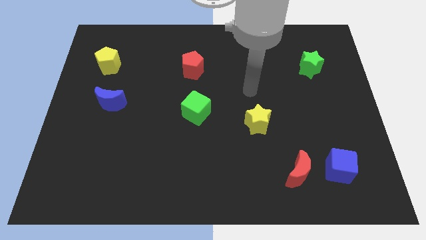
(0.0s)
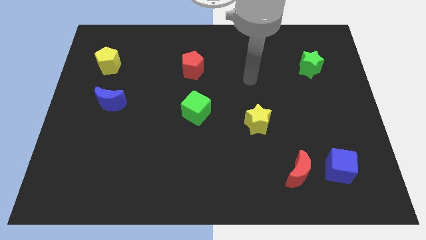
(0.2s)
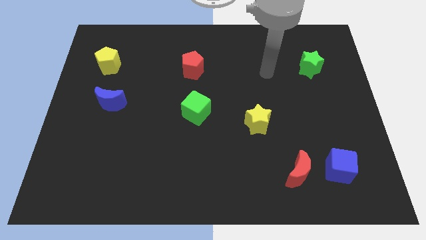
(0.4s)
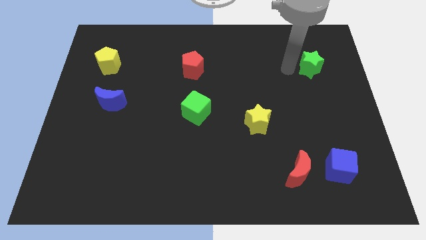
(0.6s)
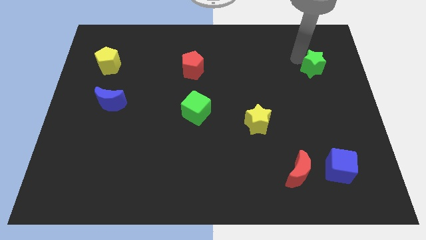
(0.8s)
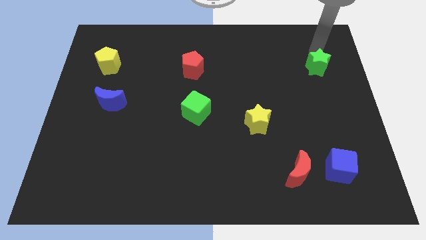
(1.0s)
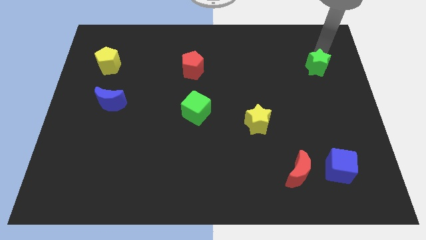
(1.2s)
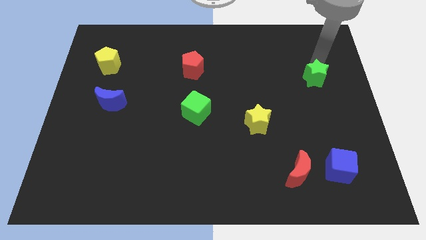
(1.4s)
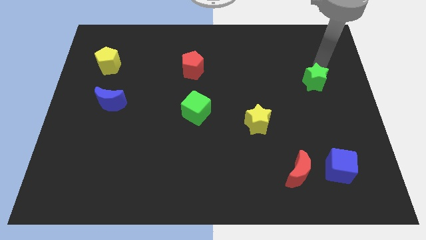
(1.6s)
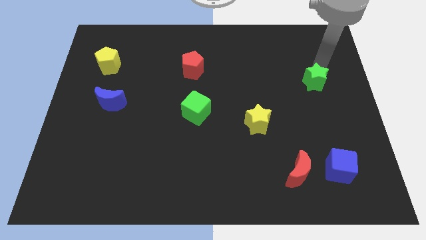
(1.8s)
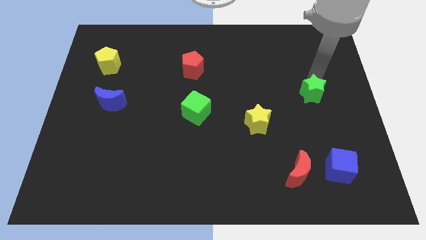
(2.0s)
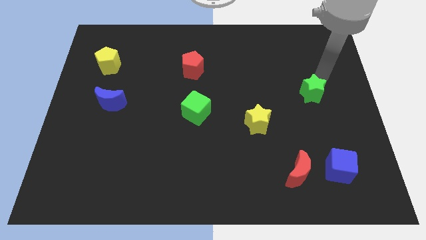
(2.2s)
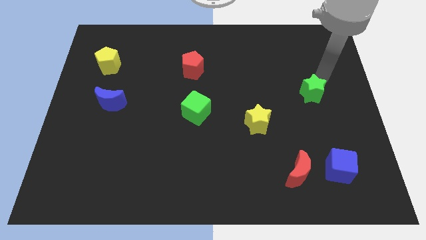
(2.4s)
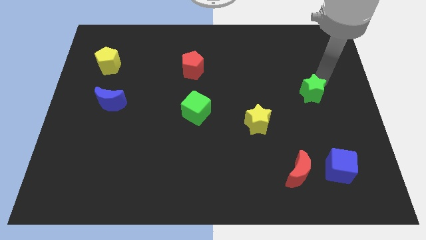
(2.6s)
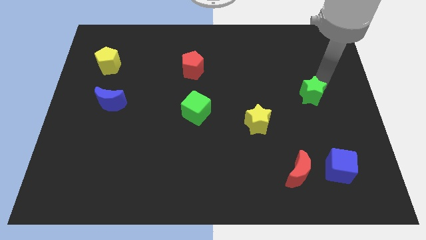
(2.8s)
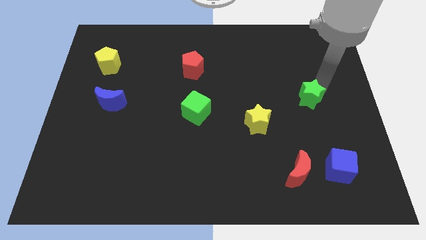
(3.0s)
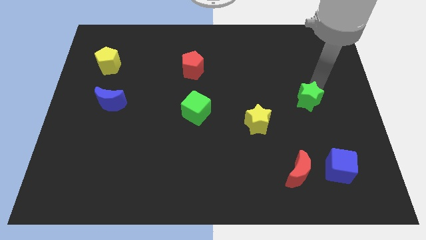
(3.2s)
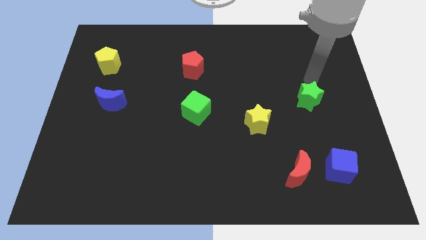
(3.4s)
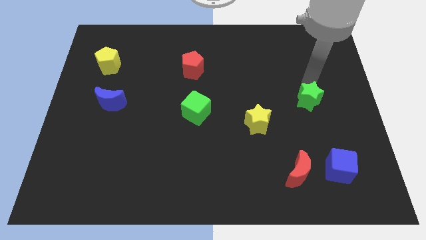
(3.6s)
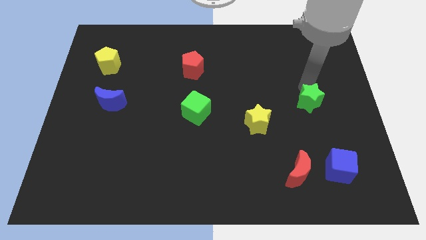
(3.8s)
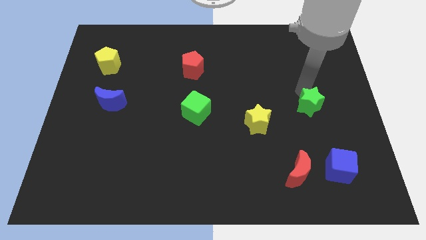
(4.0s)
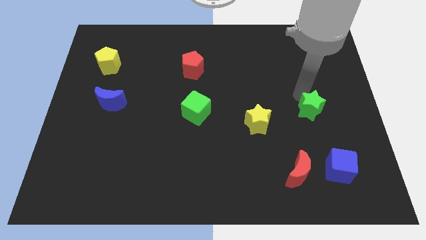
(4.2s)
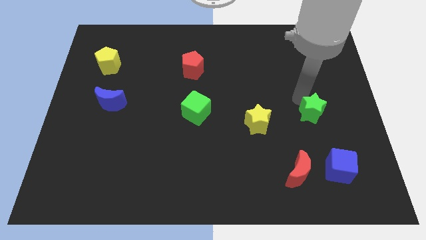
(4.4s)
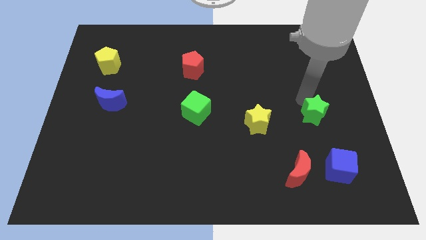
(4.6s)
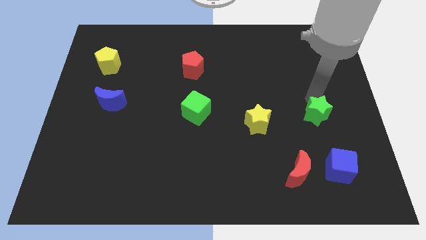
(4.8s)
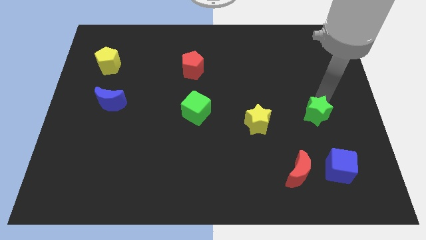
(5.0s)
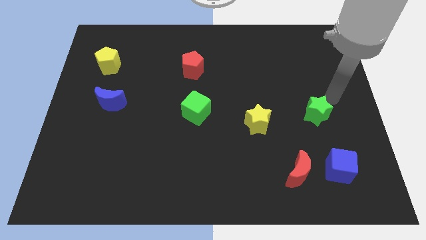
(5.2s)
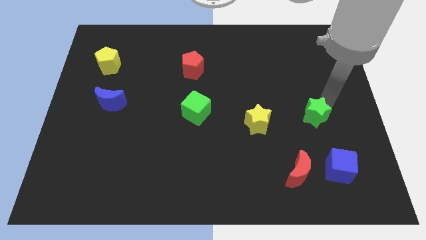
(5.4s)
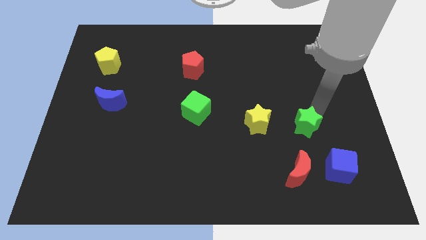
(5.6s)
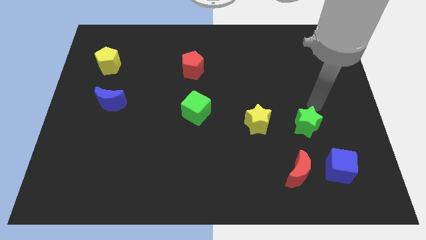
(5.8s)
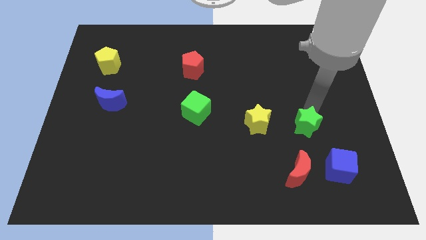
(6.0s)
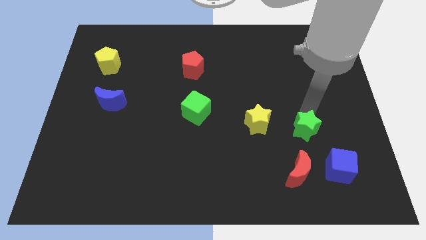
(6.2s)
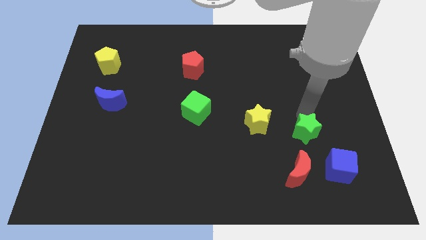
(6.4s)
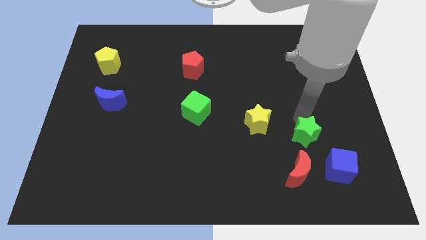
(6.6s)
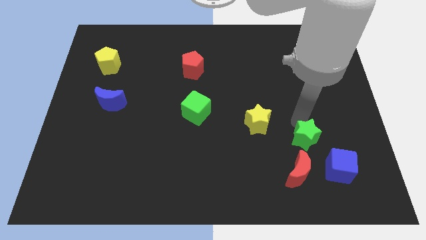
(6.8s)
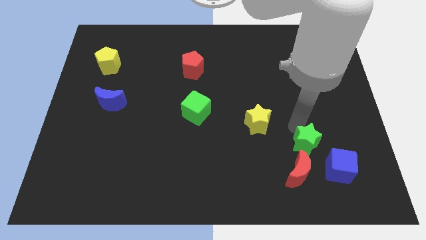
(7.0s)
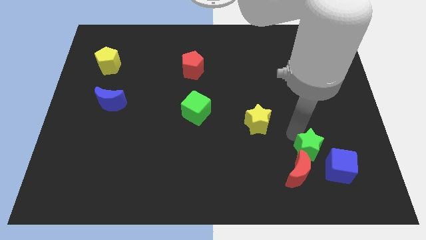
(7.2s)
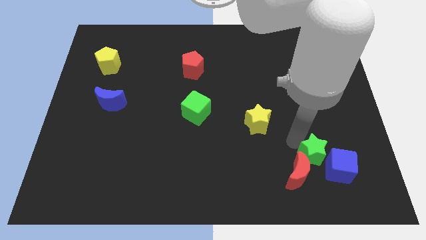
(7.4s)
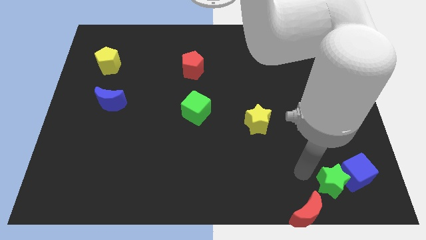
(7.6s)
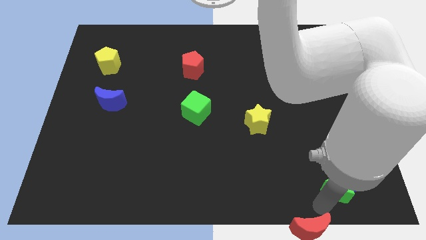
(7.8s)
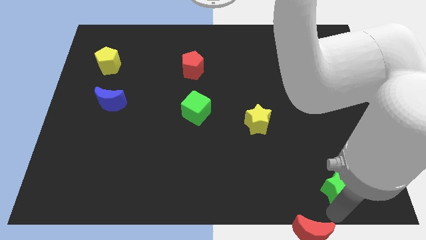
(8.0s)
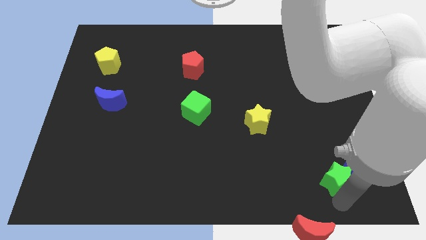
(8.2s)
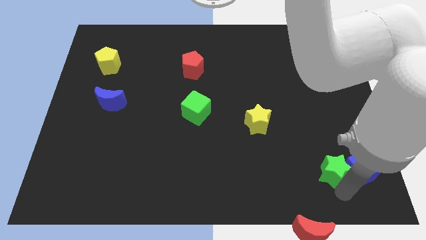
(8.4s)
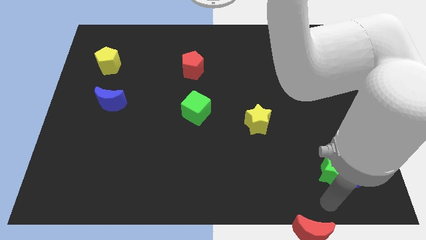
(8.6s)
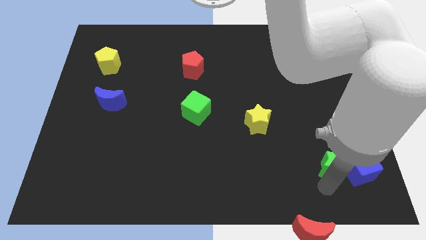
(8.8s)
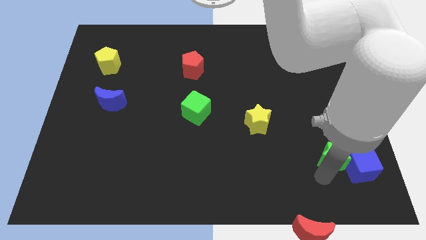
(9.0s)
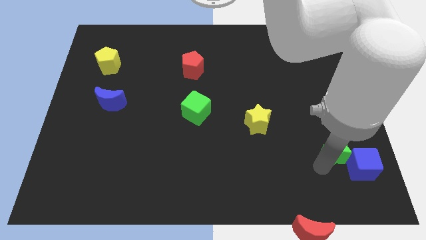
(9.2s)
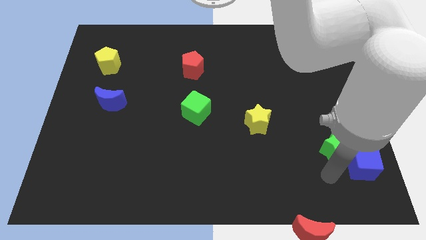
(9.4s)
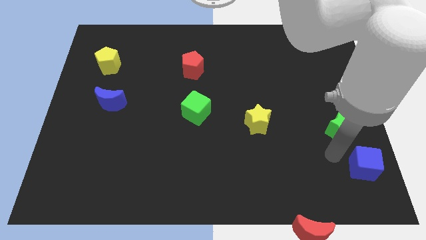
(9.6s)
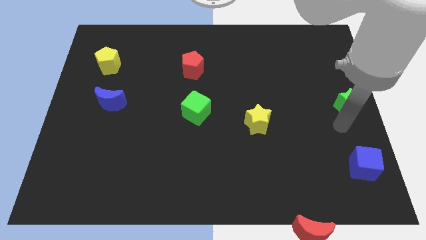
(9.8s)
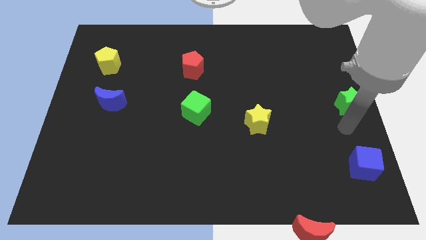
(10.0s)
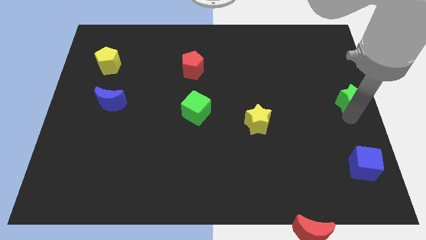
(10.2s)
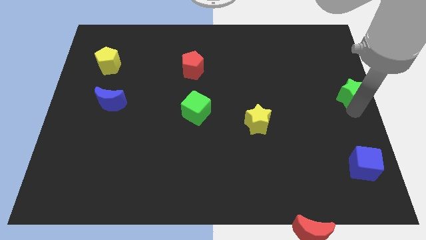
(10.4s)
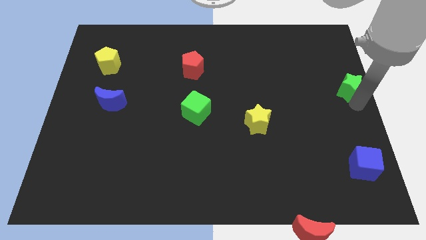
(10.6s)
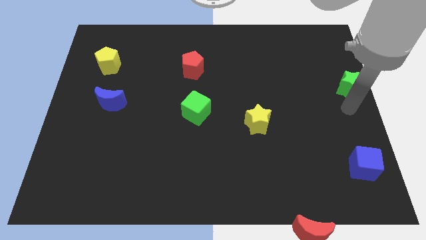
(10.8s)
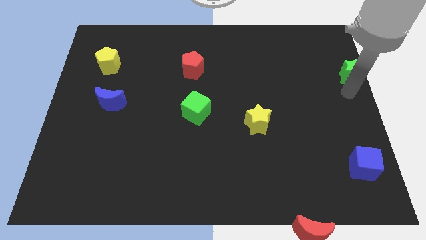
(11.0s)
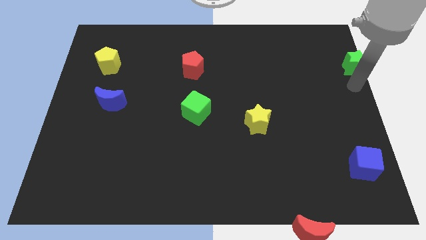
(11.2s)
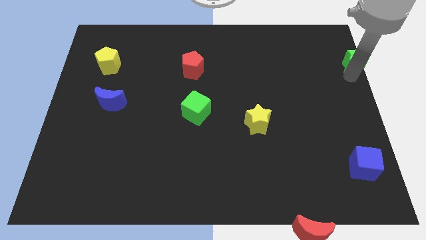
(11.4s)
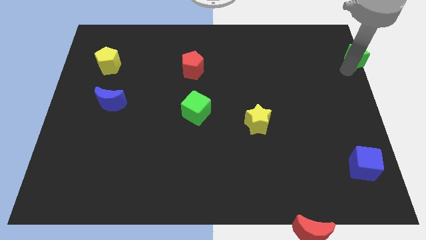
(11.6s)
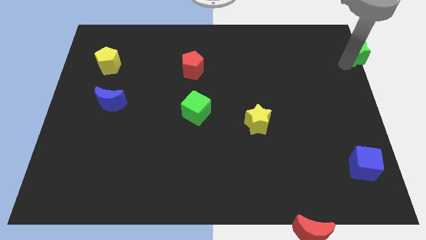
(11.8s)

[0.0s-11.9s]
push the green star to the upper right corner
